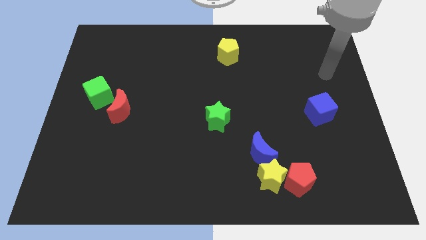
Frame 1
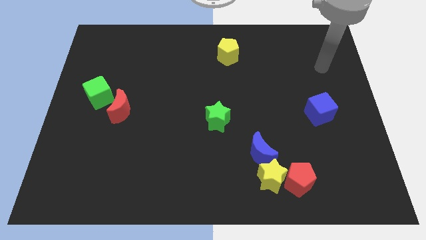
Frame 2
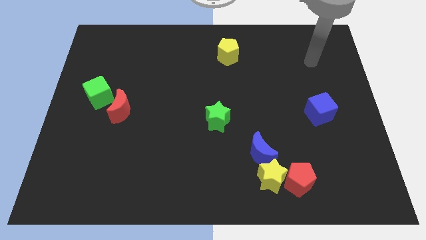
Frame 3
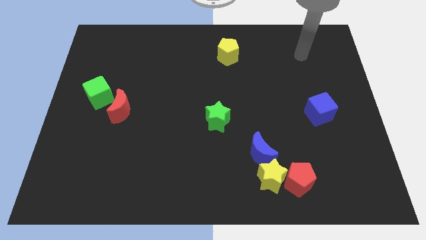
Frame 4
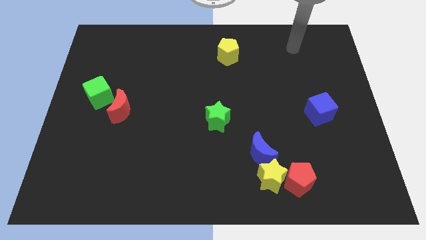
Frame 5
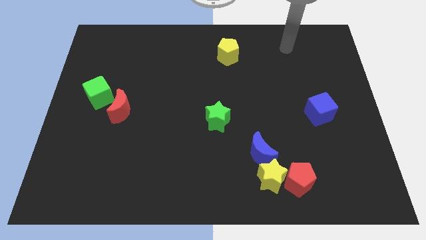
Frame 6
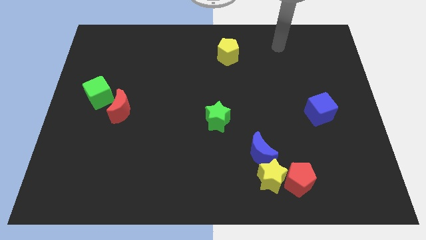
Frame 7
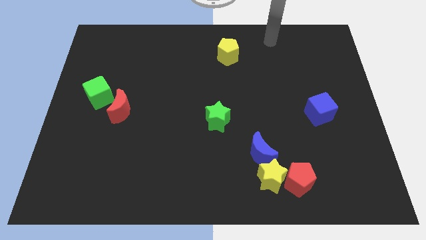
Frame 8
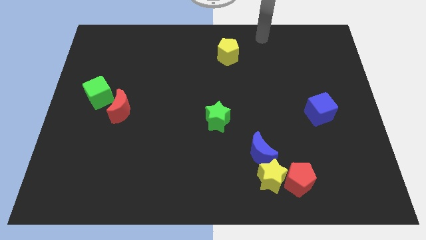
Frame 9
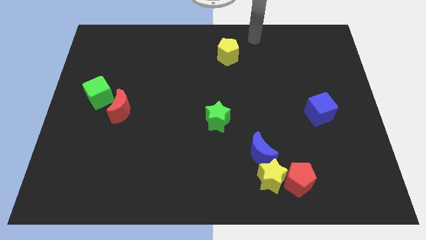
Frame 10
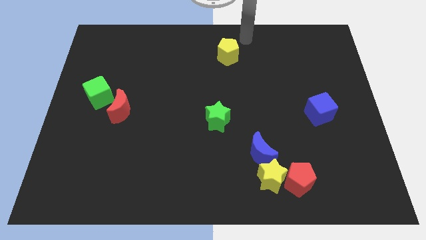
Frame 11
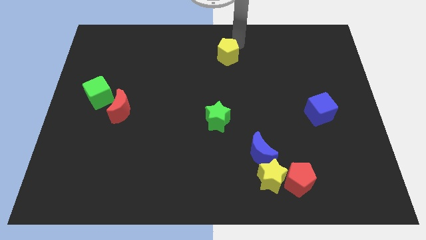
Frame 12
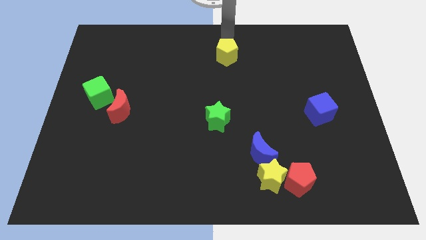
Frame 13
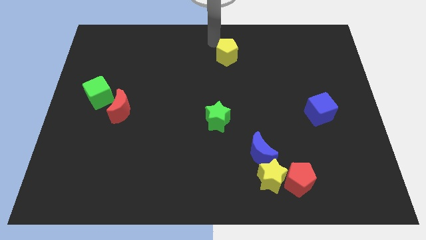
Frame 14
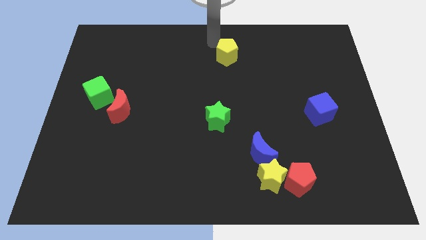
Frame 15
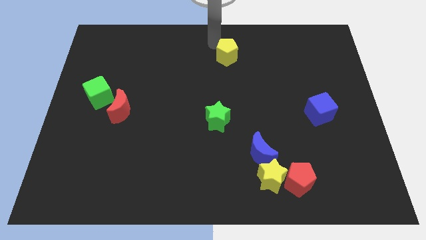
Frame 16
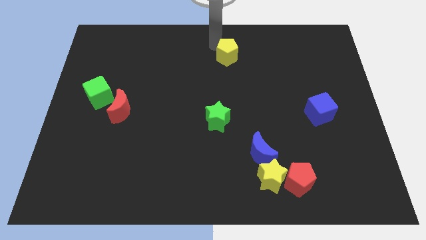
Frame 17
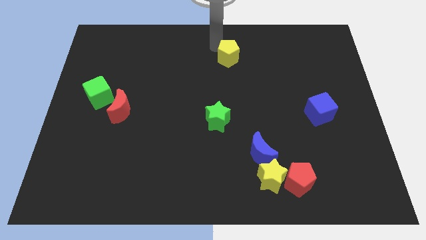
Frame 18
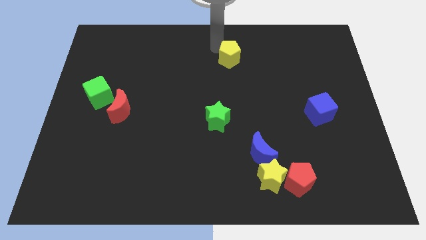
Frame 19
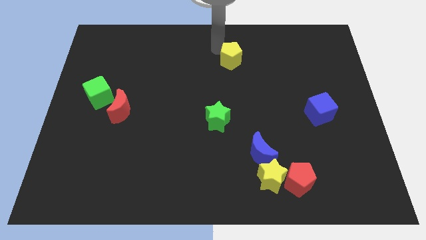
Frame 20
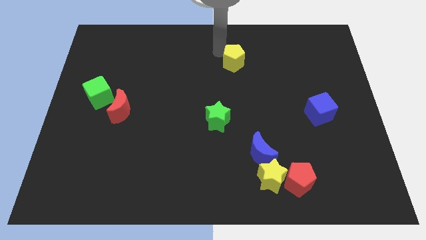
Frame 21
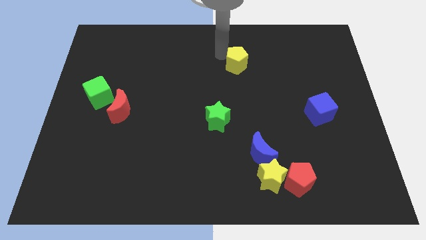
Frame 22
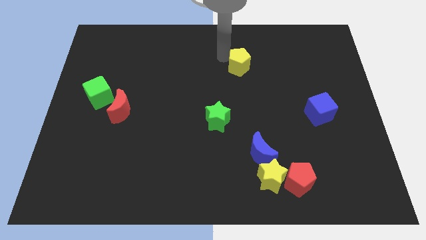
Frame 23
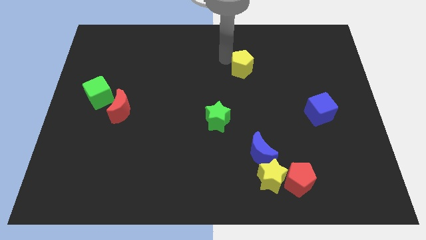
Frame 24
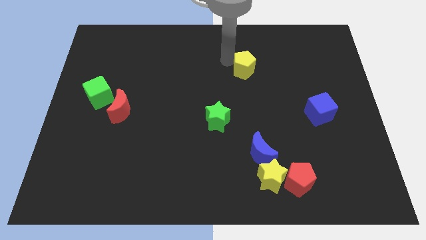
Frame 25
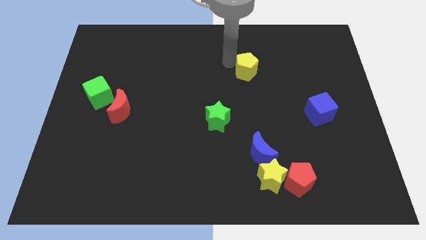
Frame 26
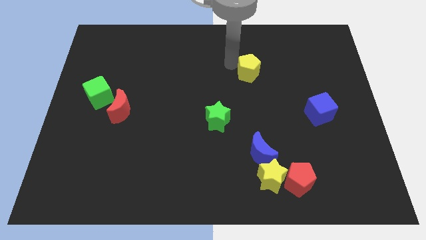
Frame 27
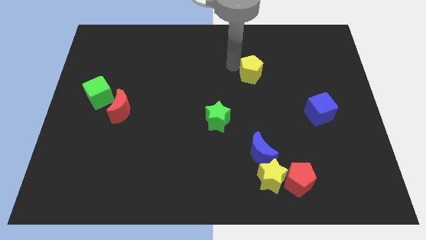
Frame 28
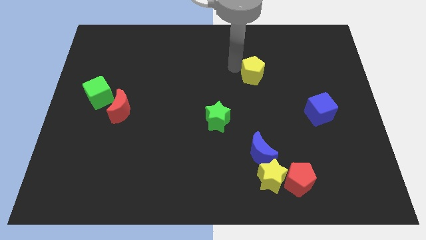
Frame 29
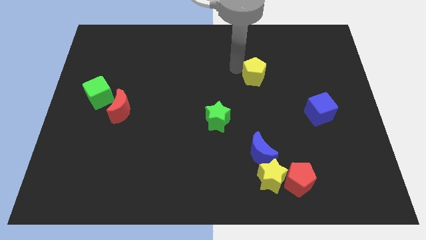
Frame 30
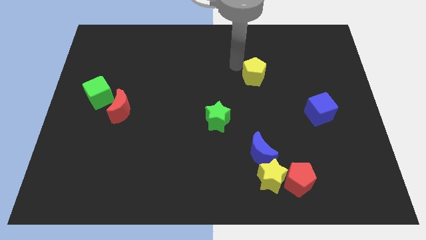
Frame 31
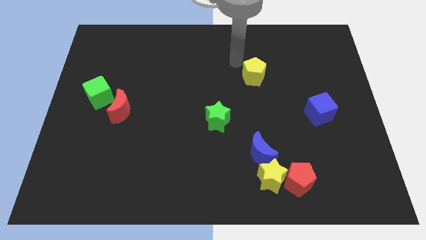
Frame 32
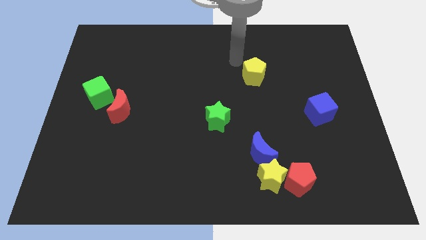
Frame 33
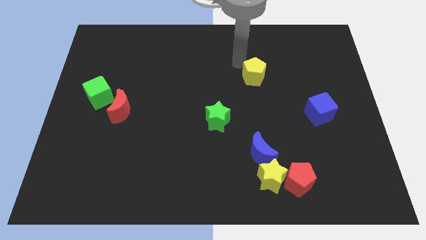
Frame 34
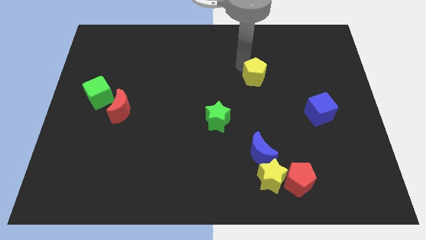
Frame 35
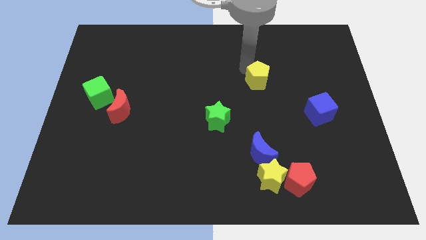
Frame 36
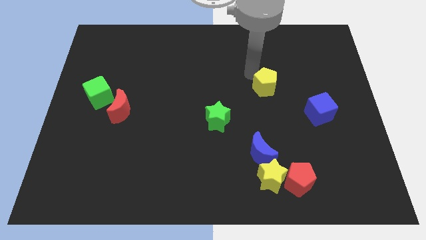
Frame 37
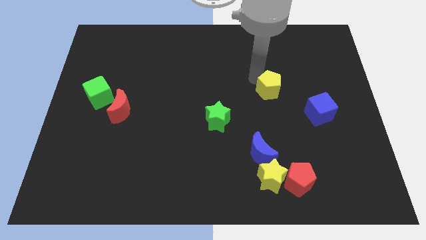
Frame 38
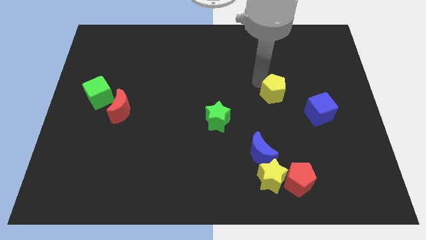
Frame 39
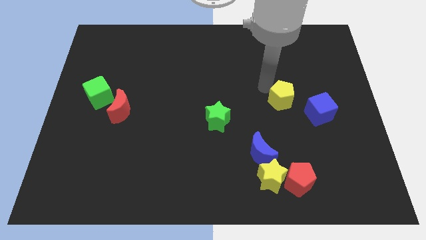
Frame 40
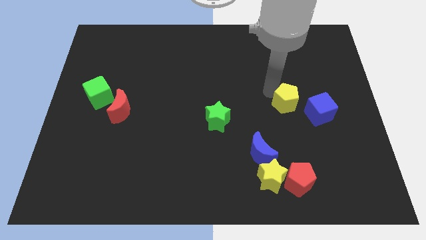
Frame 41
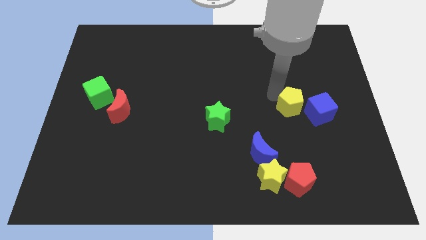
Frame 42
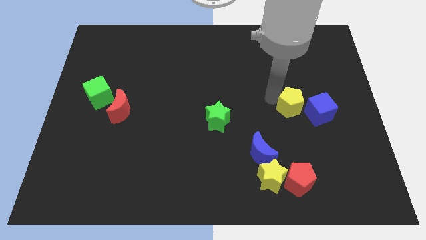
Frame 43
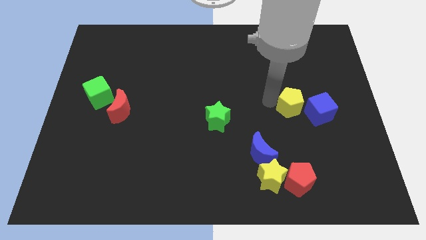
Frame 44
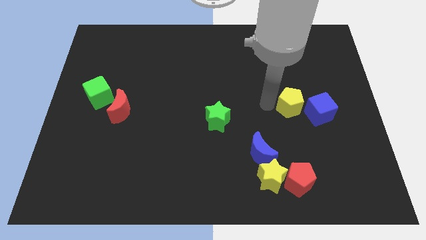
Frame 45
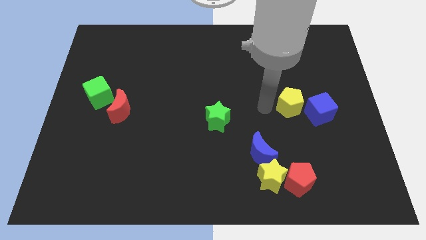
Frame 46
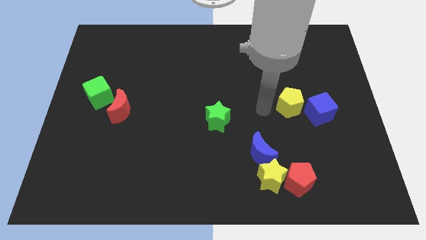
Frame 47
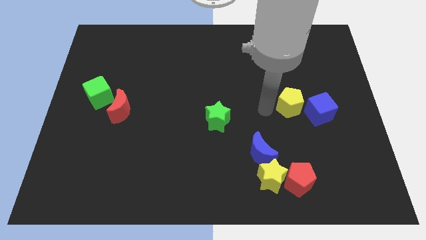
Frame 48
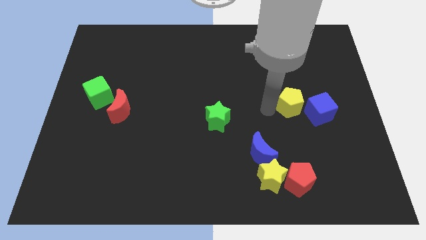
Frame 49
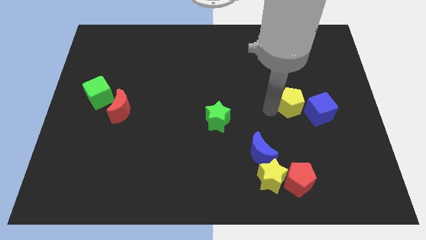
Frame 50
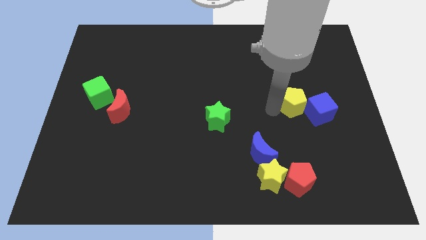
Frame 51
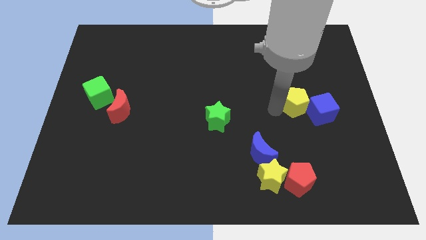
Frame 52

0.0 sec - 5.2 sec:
slide the yellow pentagon towards the blue cube
